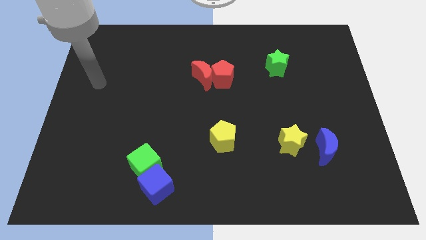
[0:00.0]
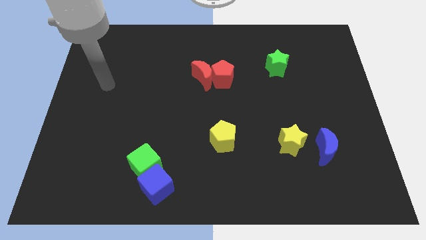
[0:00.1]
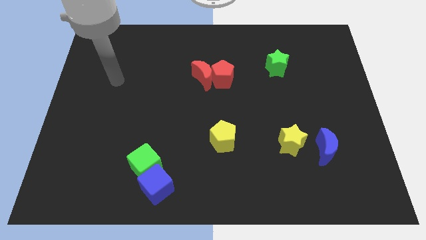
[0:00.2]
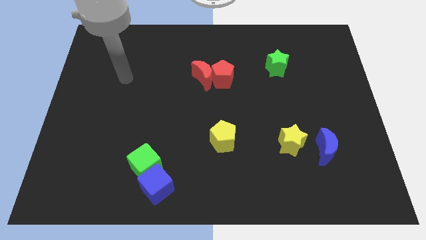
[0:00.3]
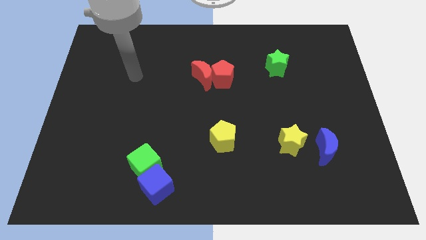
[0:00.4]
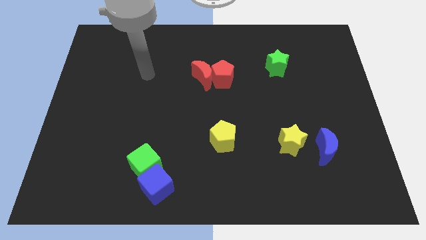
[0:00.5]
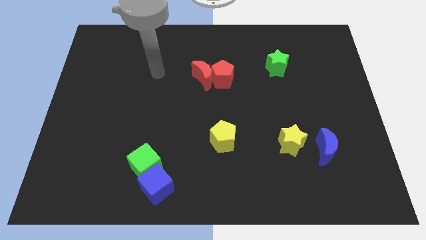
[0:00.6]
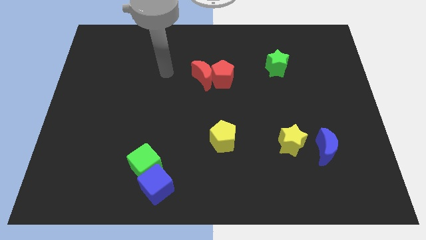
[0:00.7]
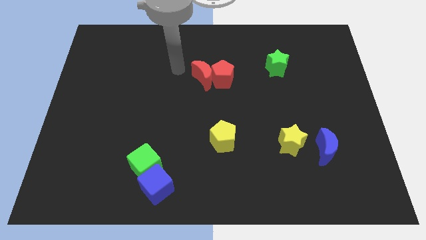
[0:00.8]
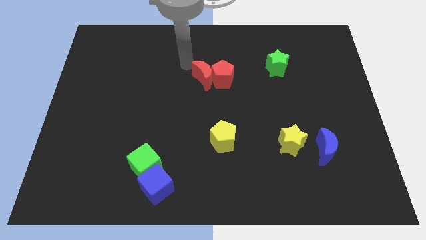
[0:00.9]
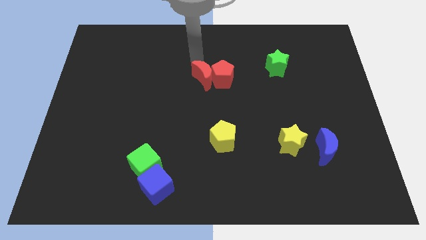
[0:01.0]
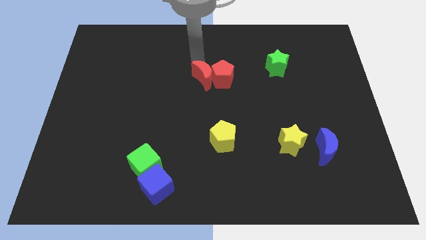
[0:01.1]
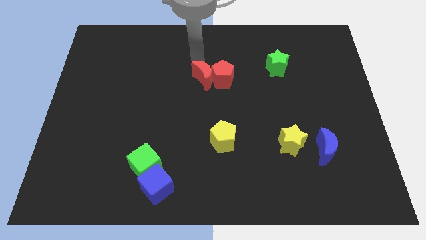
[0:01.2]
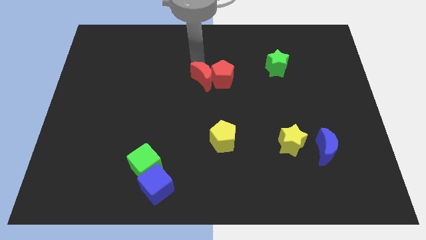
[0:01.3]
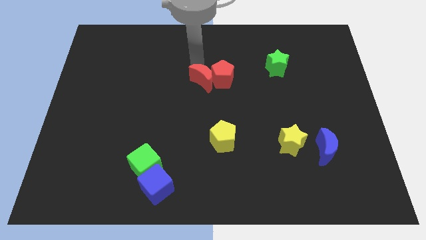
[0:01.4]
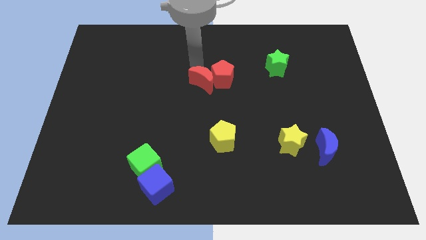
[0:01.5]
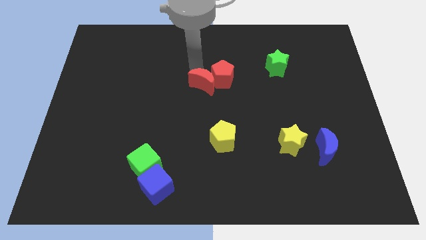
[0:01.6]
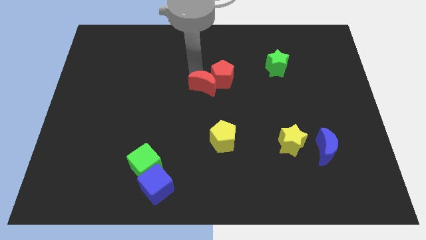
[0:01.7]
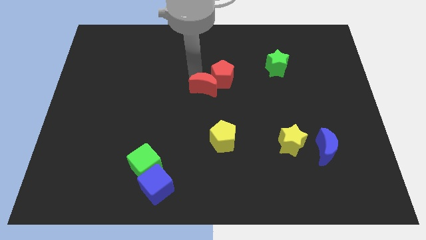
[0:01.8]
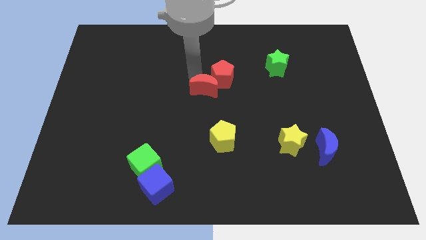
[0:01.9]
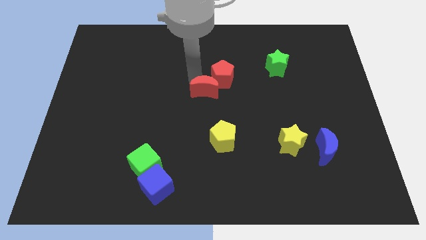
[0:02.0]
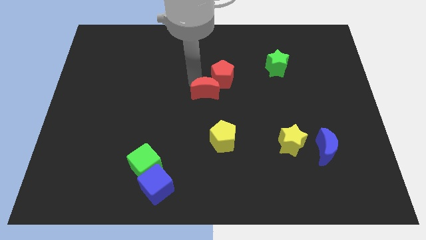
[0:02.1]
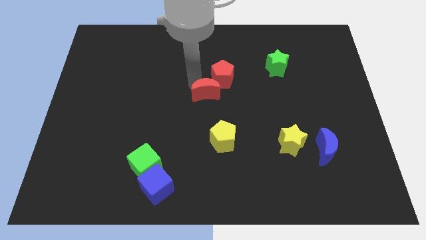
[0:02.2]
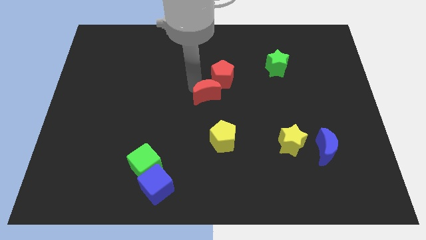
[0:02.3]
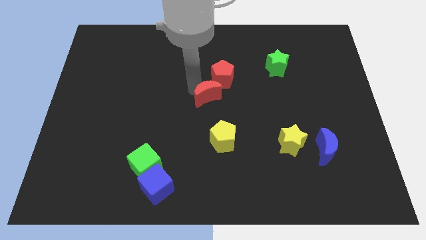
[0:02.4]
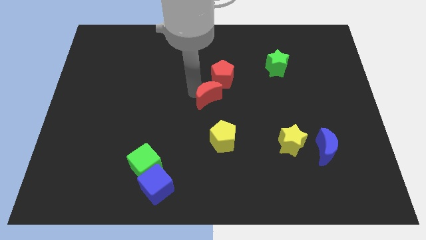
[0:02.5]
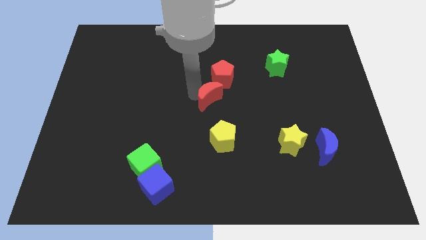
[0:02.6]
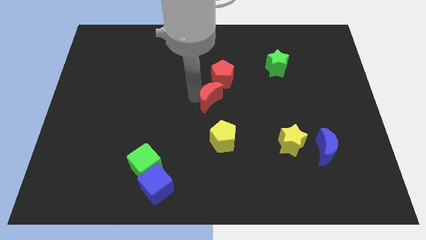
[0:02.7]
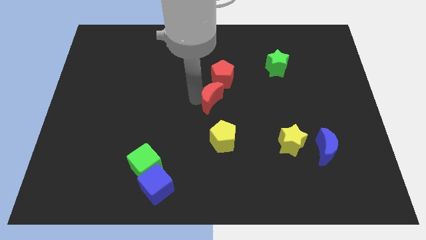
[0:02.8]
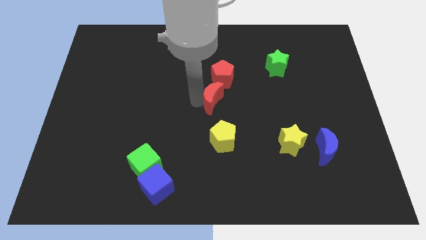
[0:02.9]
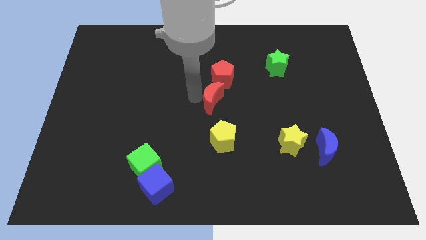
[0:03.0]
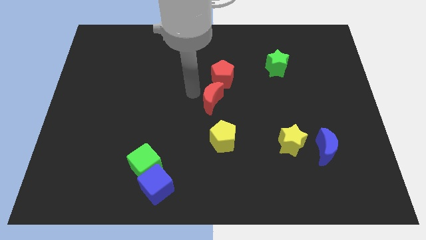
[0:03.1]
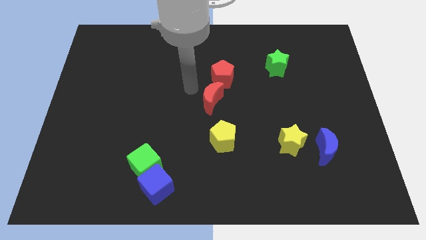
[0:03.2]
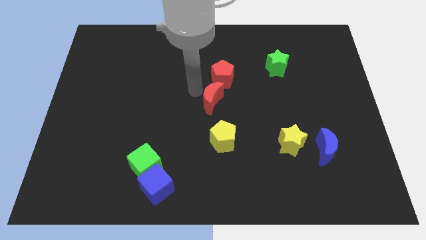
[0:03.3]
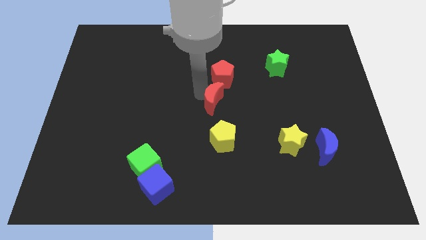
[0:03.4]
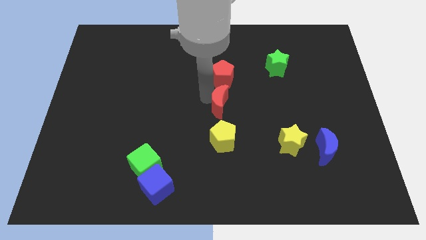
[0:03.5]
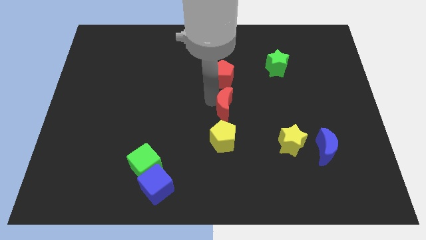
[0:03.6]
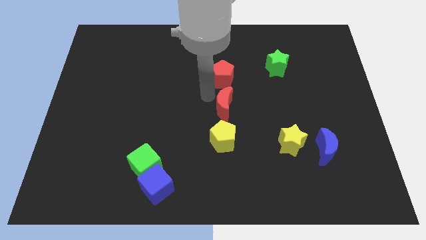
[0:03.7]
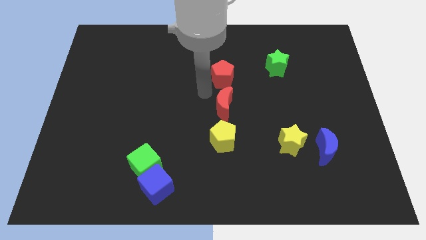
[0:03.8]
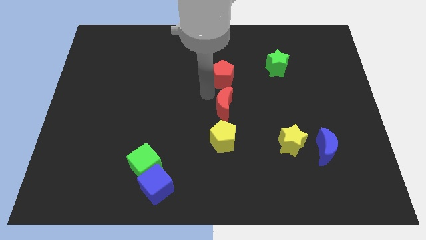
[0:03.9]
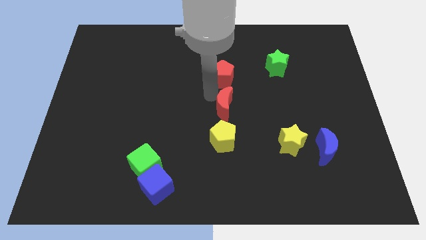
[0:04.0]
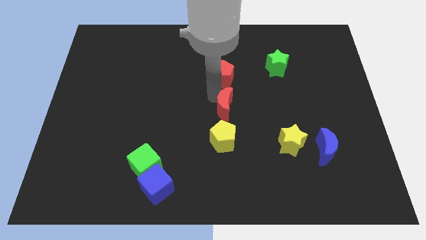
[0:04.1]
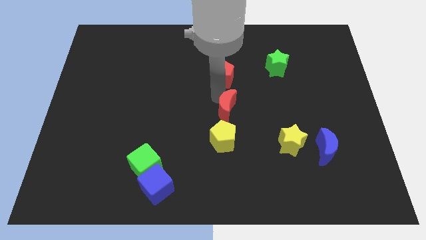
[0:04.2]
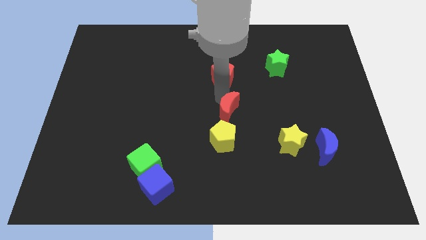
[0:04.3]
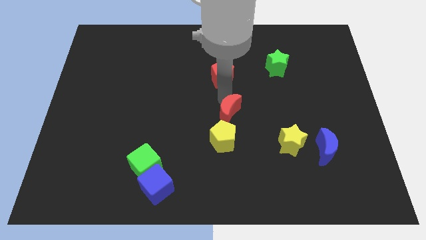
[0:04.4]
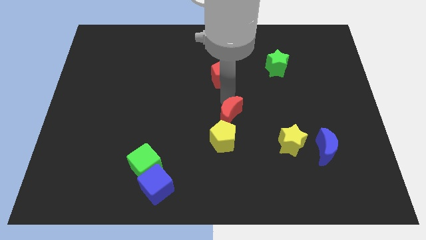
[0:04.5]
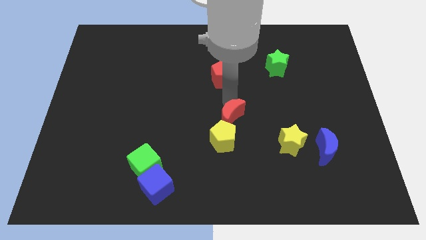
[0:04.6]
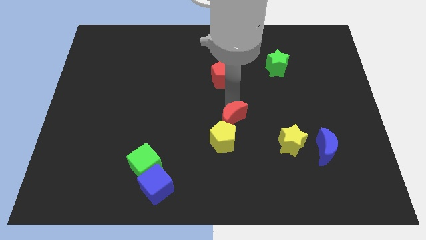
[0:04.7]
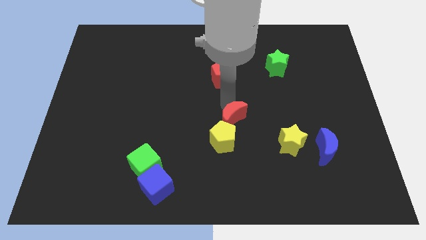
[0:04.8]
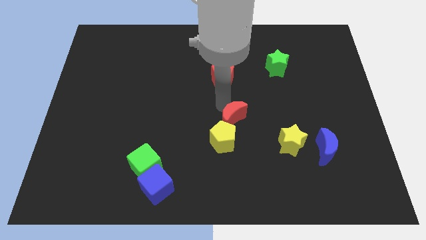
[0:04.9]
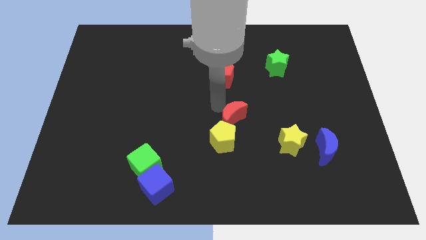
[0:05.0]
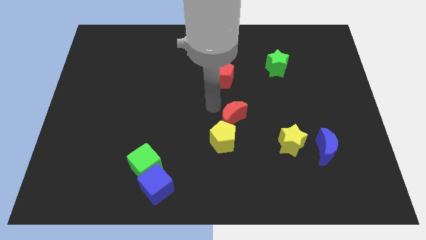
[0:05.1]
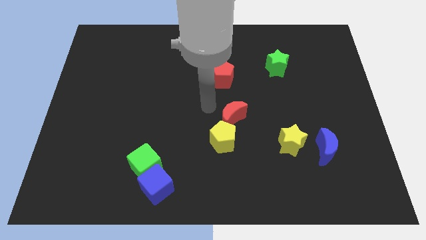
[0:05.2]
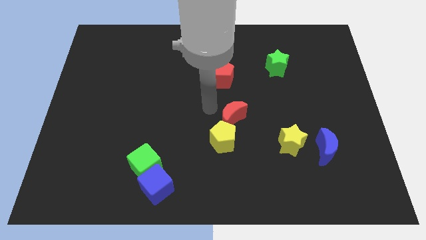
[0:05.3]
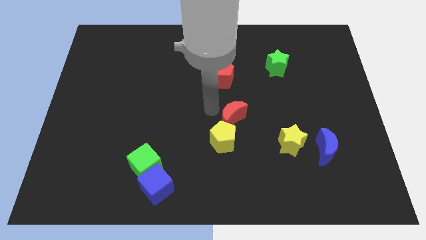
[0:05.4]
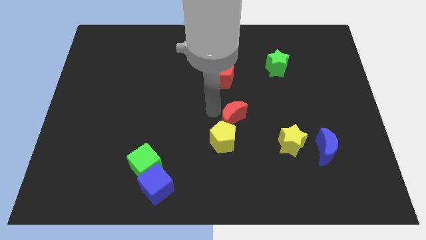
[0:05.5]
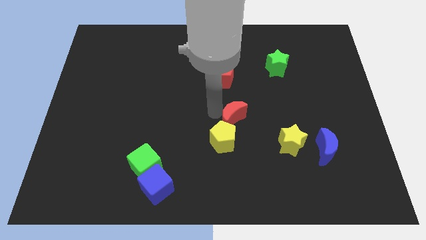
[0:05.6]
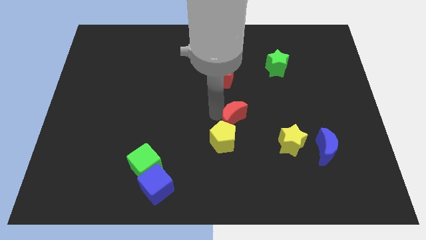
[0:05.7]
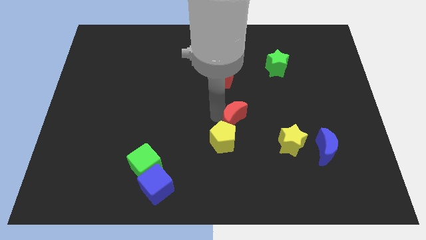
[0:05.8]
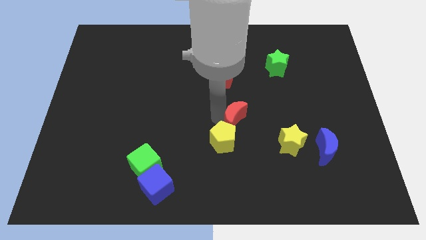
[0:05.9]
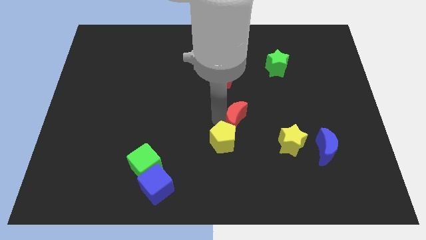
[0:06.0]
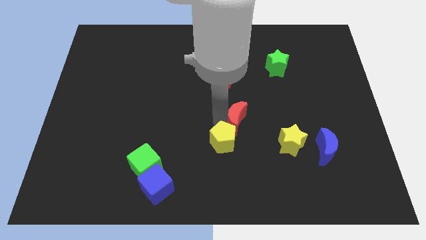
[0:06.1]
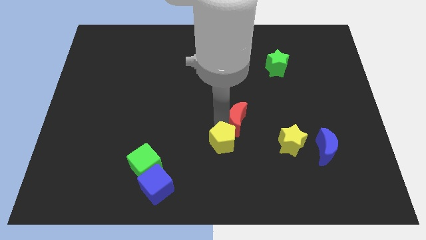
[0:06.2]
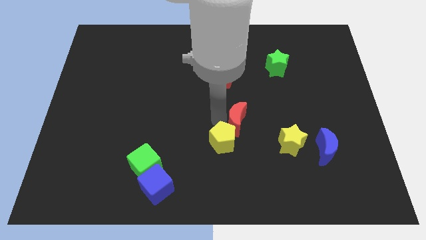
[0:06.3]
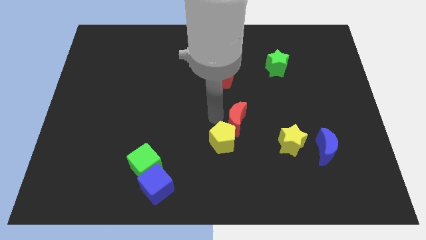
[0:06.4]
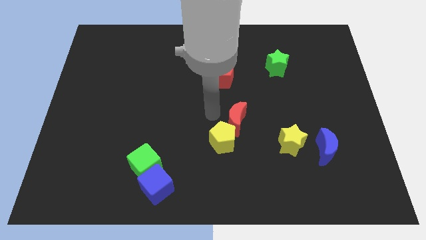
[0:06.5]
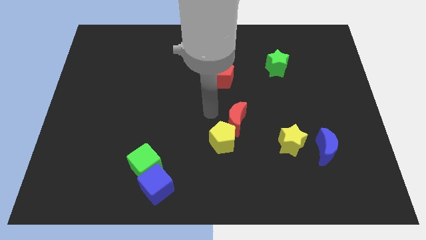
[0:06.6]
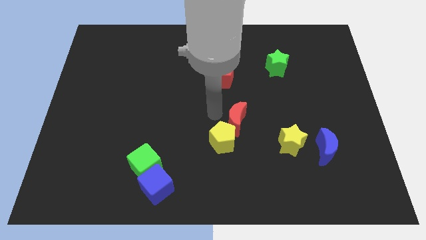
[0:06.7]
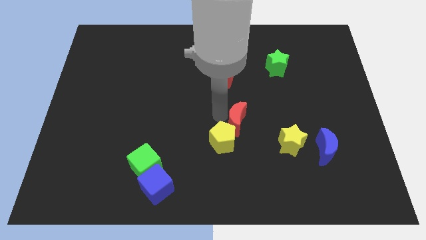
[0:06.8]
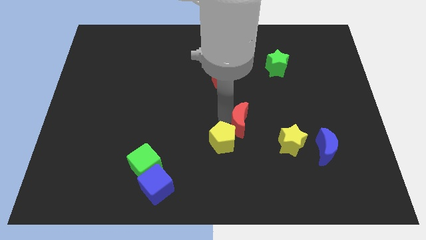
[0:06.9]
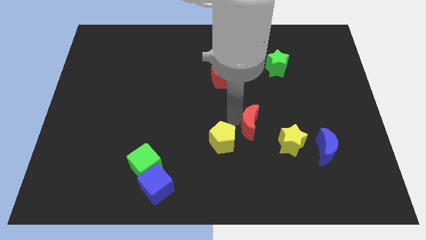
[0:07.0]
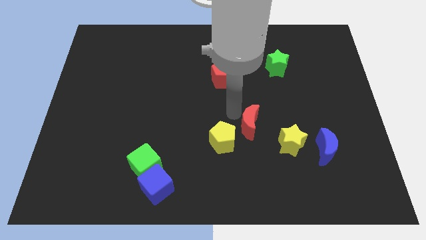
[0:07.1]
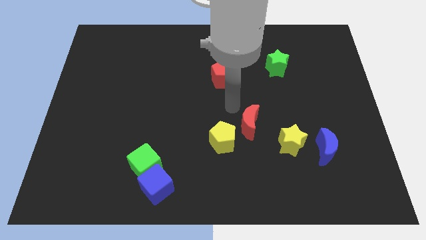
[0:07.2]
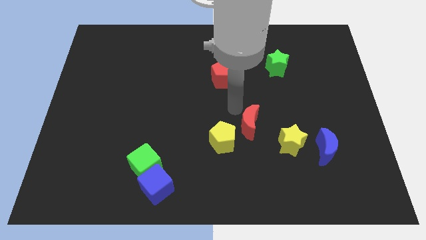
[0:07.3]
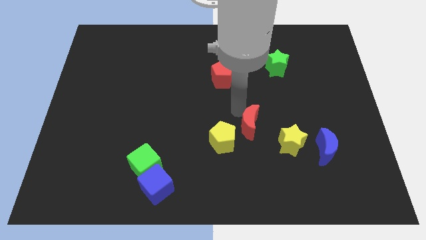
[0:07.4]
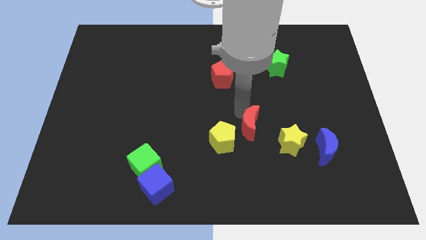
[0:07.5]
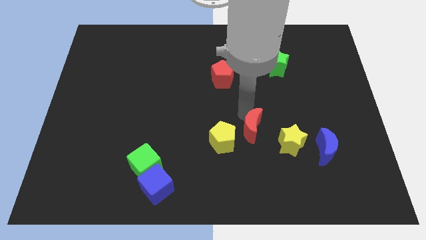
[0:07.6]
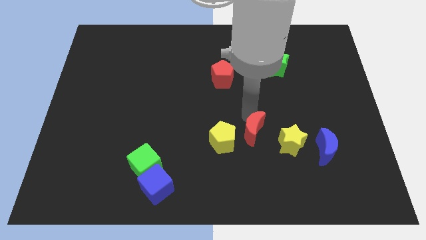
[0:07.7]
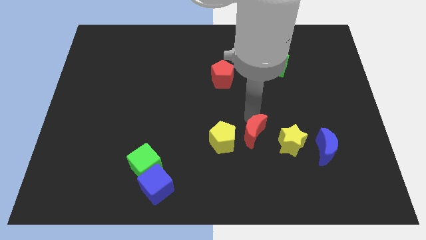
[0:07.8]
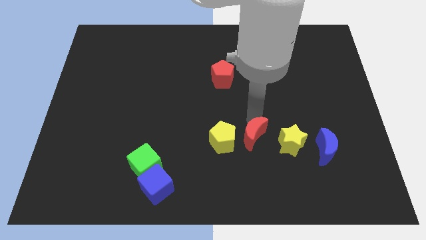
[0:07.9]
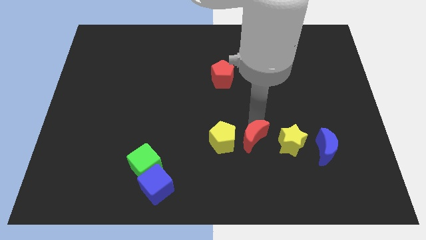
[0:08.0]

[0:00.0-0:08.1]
slide the red moon downwards and right diagonally
